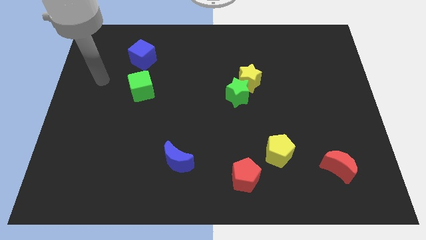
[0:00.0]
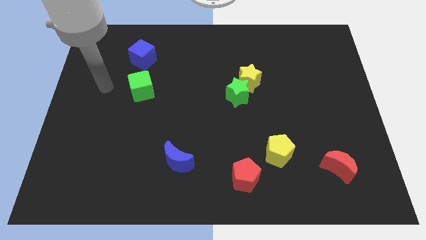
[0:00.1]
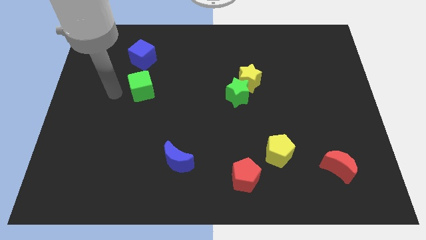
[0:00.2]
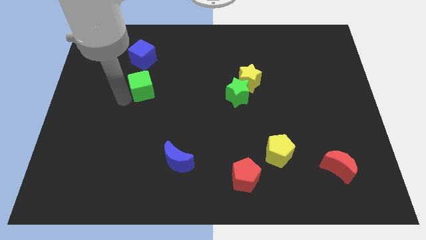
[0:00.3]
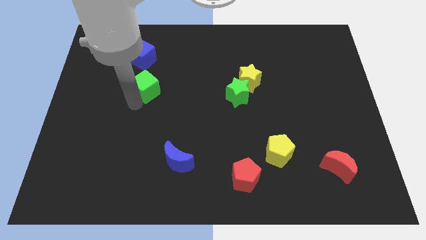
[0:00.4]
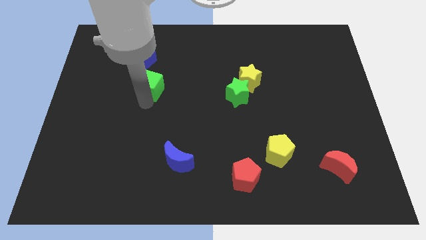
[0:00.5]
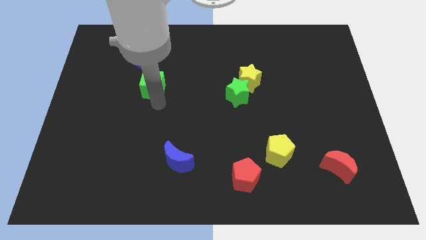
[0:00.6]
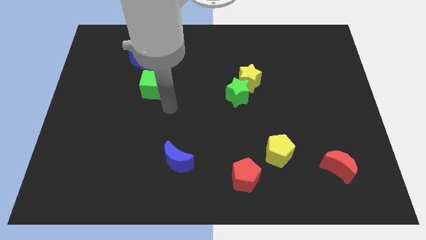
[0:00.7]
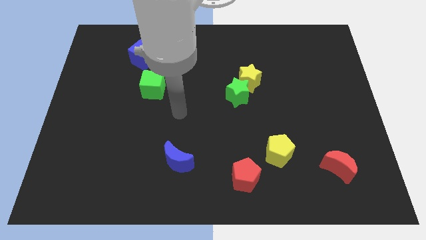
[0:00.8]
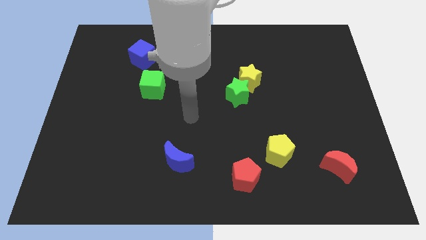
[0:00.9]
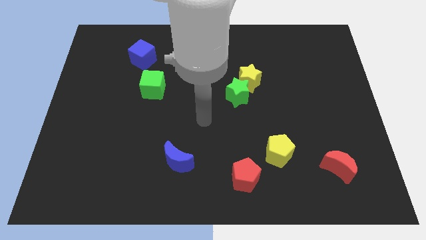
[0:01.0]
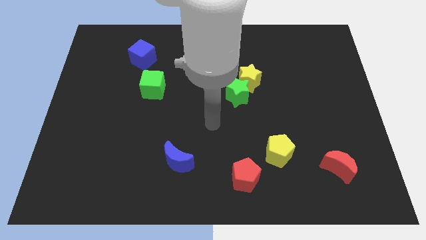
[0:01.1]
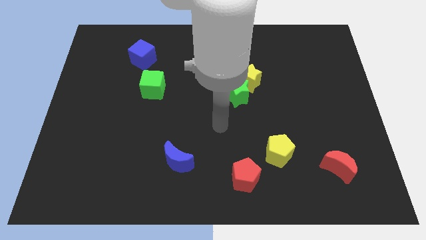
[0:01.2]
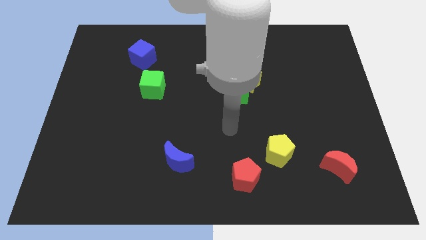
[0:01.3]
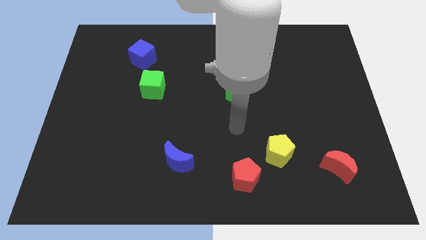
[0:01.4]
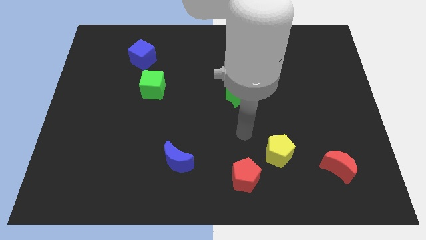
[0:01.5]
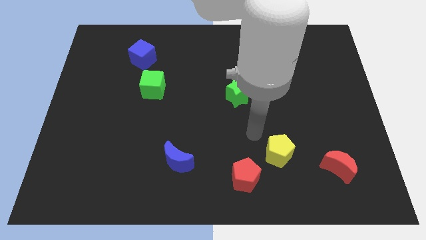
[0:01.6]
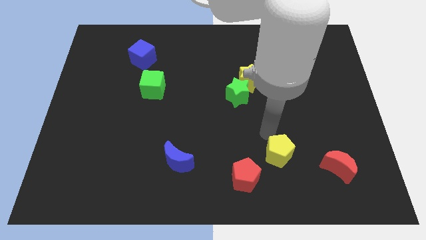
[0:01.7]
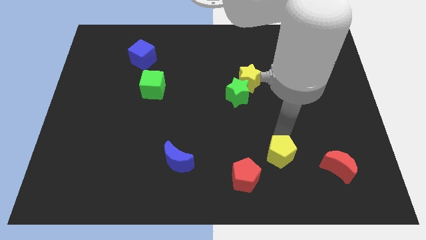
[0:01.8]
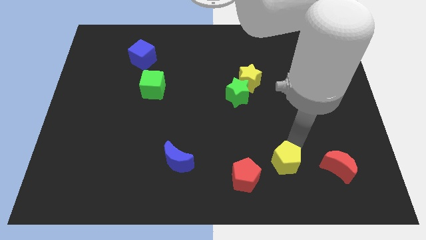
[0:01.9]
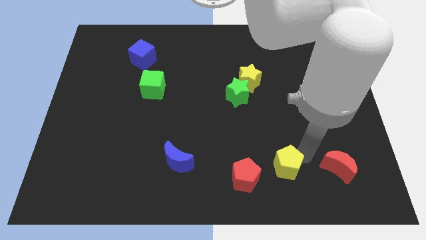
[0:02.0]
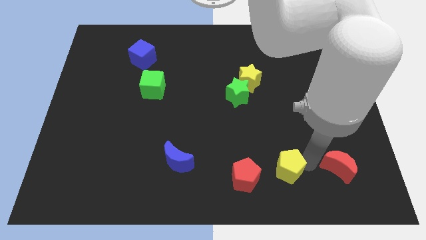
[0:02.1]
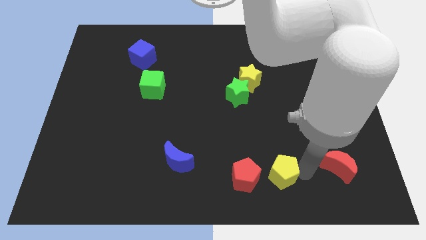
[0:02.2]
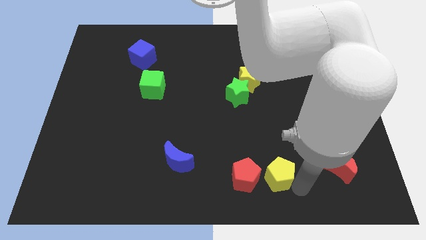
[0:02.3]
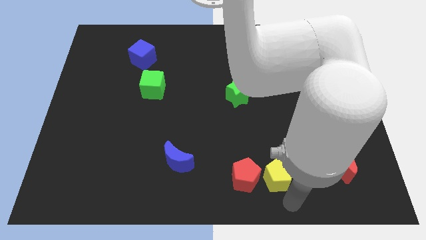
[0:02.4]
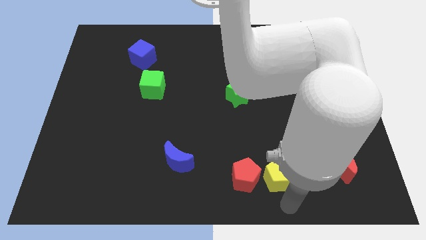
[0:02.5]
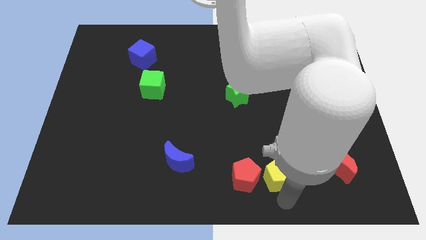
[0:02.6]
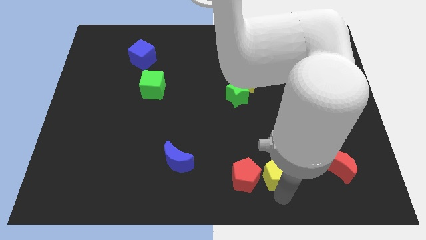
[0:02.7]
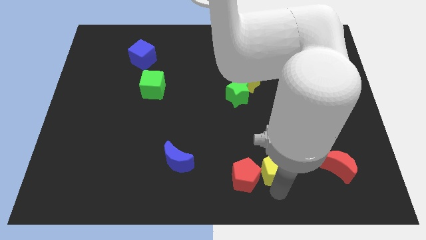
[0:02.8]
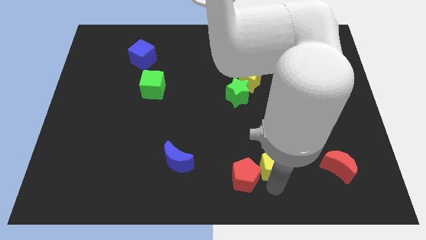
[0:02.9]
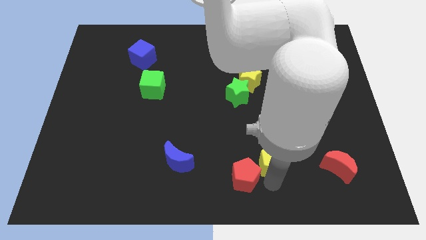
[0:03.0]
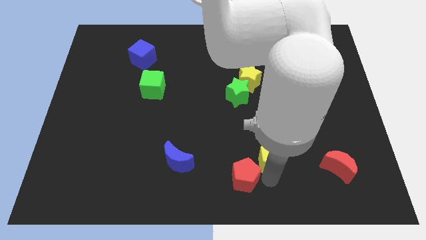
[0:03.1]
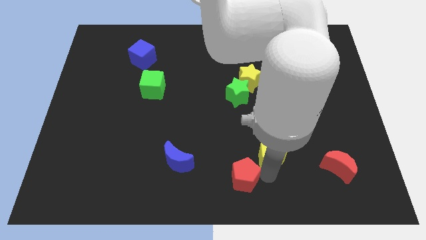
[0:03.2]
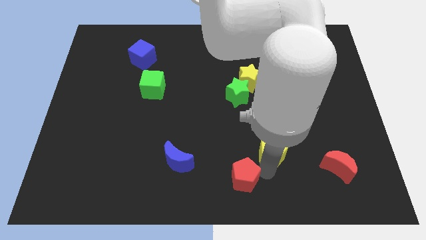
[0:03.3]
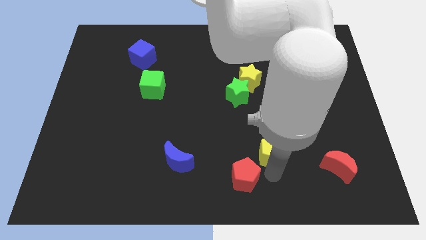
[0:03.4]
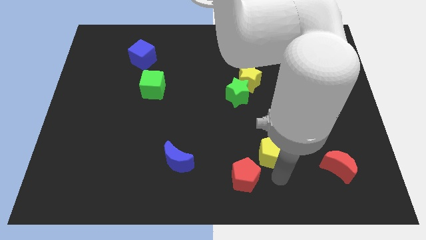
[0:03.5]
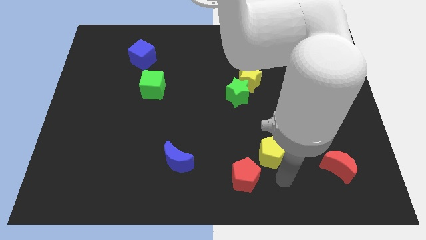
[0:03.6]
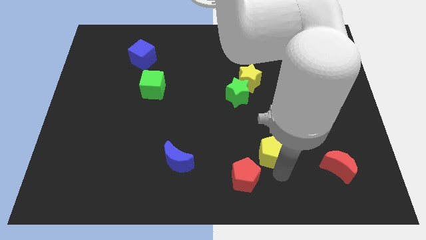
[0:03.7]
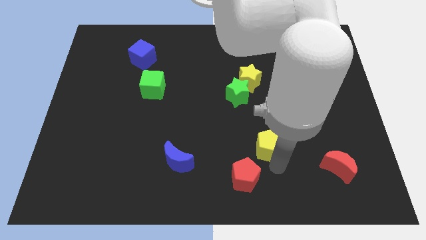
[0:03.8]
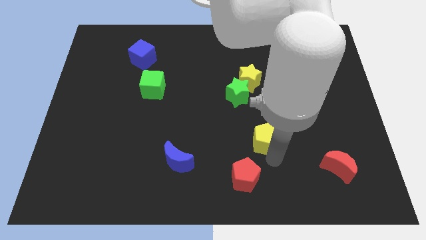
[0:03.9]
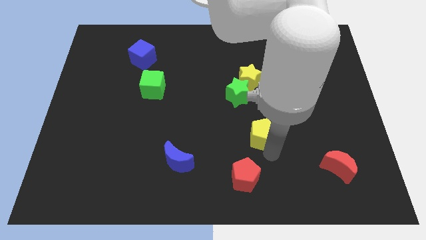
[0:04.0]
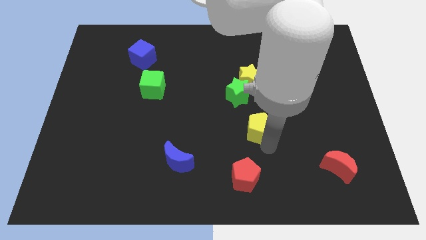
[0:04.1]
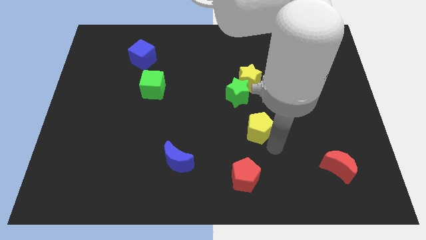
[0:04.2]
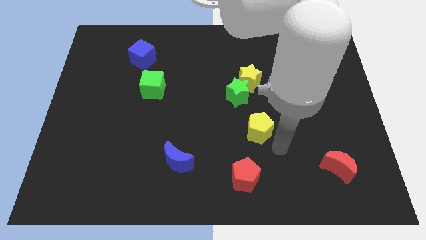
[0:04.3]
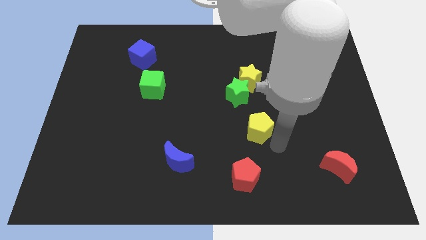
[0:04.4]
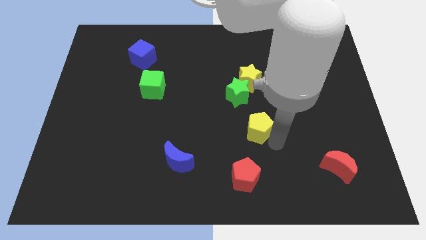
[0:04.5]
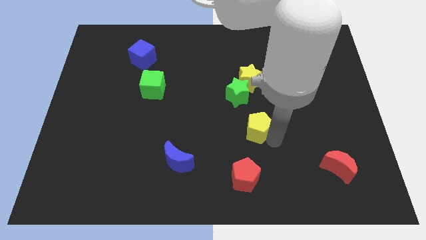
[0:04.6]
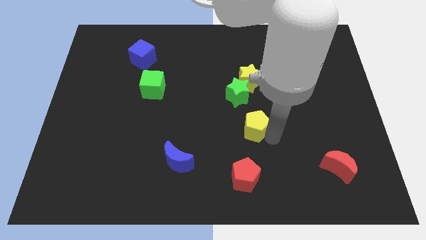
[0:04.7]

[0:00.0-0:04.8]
slide the yellow pentagon to the center of the board

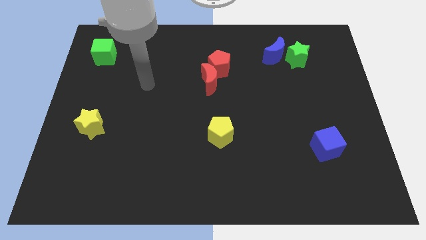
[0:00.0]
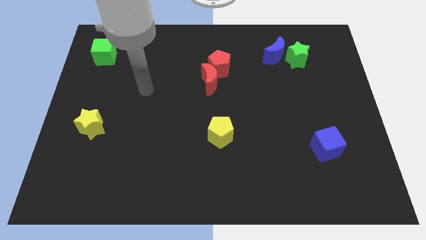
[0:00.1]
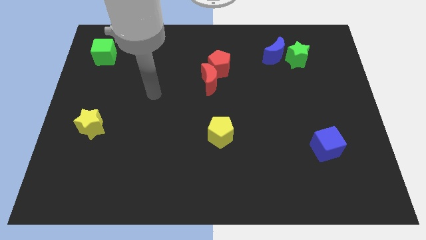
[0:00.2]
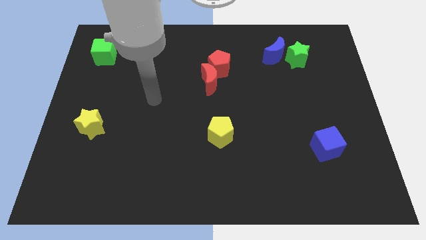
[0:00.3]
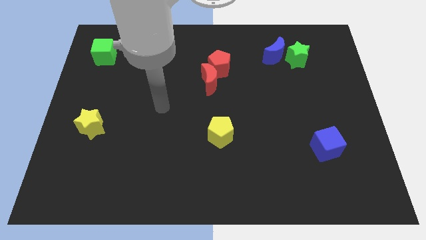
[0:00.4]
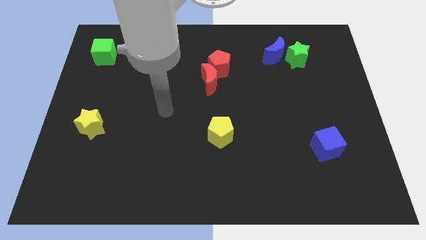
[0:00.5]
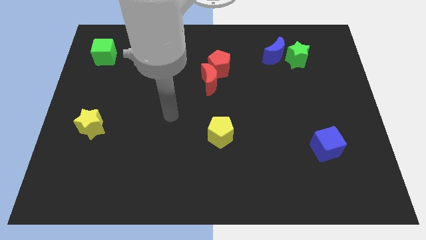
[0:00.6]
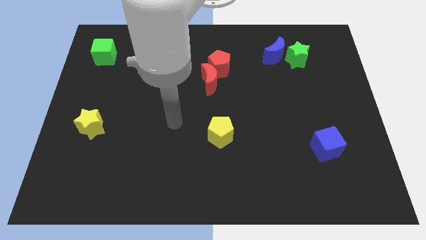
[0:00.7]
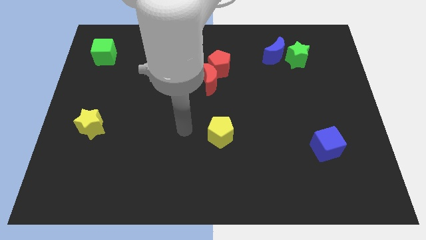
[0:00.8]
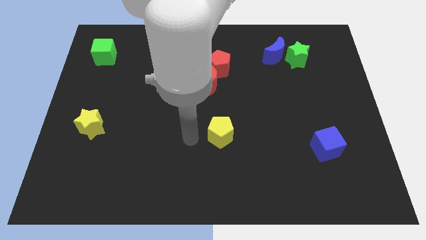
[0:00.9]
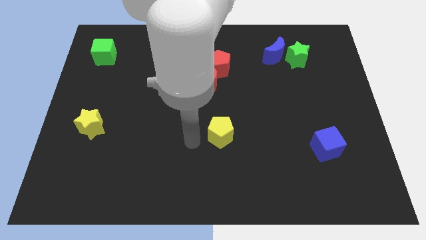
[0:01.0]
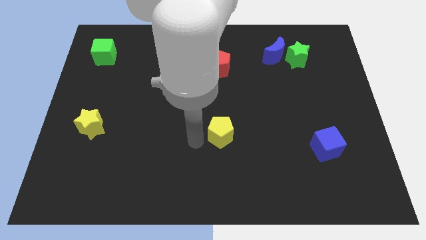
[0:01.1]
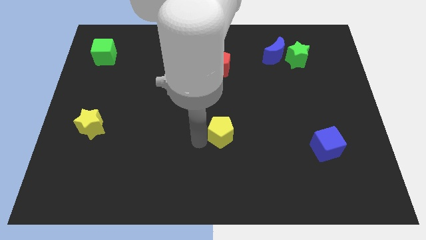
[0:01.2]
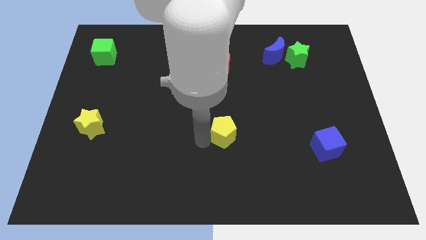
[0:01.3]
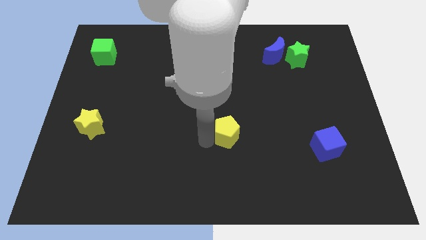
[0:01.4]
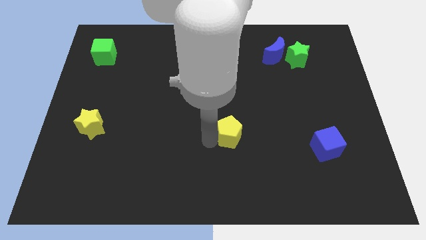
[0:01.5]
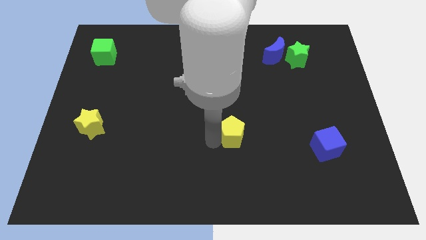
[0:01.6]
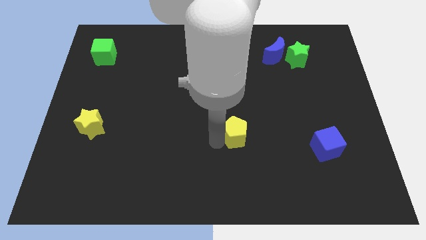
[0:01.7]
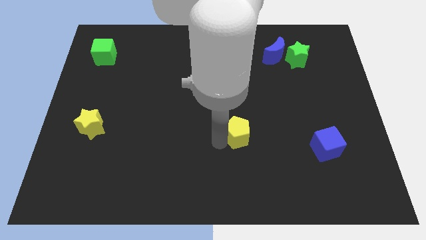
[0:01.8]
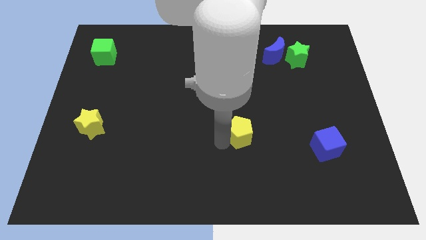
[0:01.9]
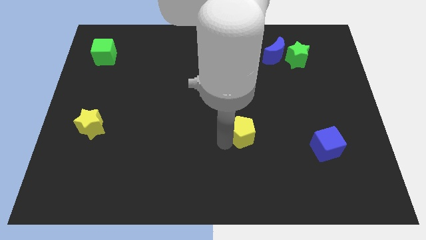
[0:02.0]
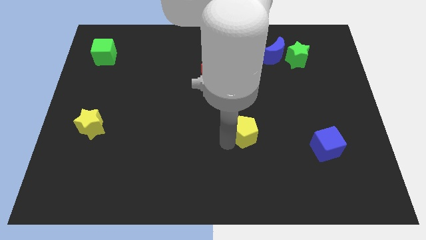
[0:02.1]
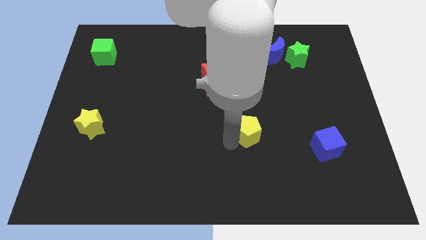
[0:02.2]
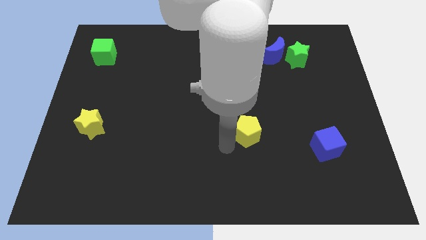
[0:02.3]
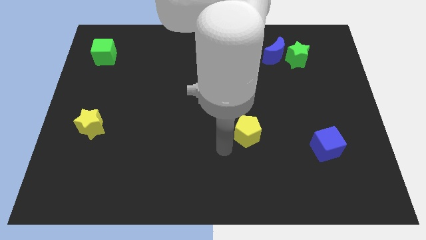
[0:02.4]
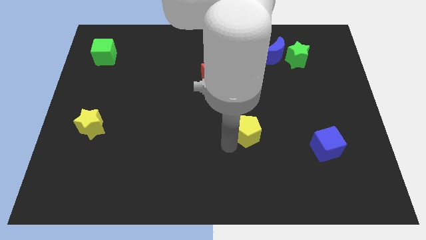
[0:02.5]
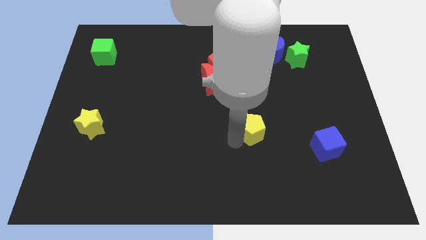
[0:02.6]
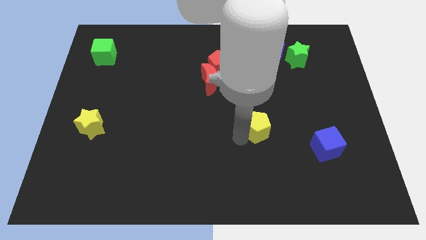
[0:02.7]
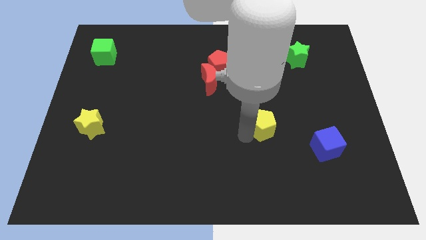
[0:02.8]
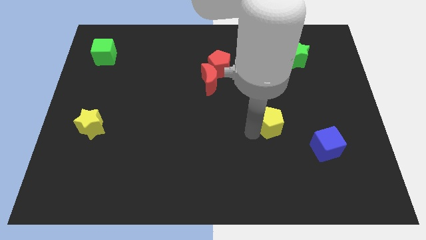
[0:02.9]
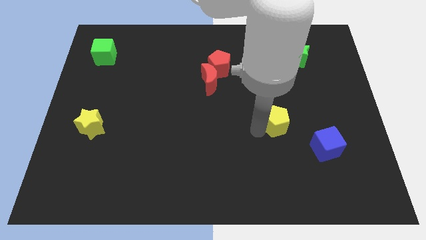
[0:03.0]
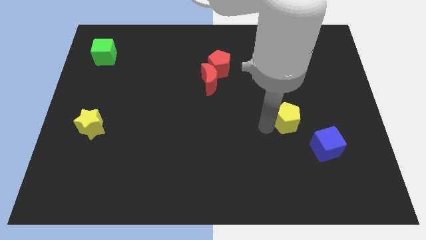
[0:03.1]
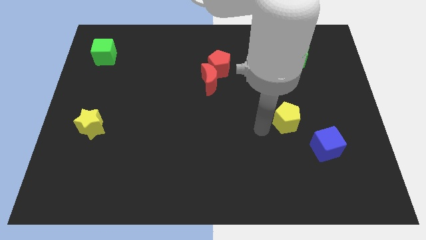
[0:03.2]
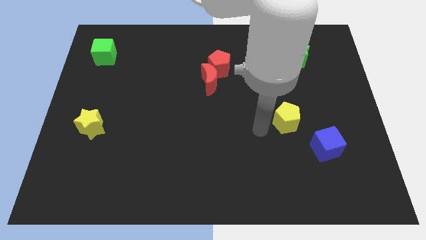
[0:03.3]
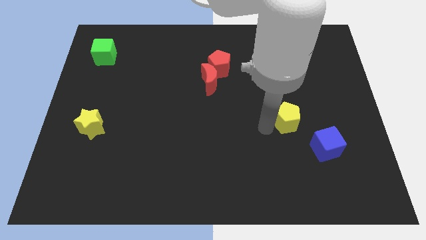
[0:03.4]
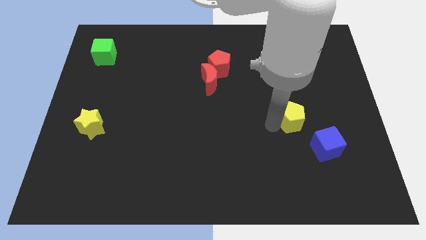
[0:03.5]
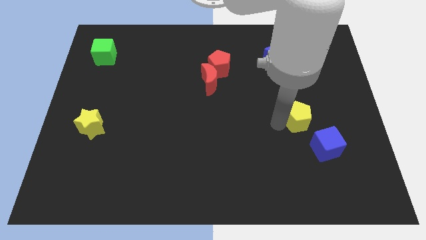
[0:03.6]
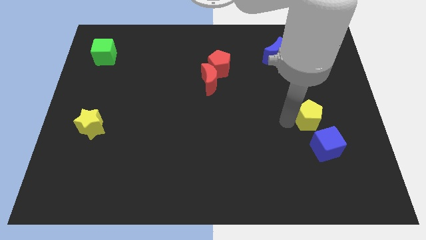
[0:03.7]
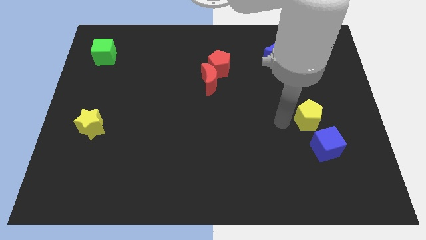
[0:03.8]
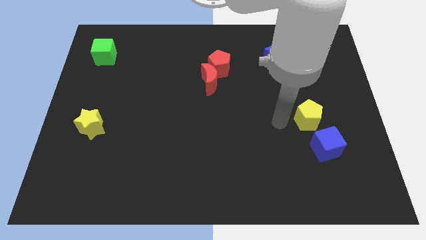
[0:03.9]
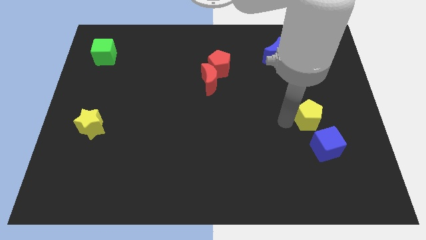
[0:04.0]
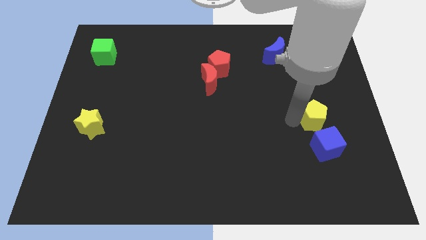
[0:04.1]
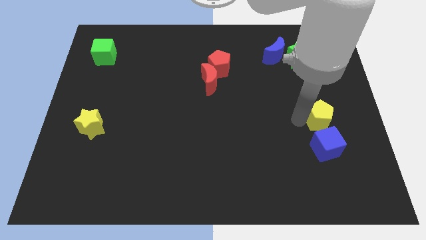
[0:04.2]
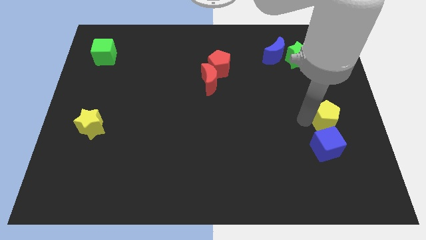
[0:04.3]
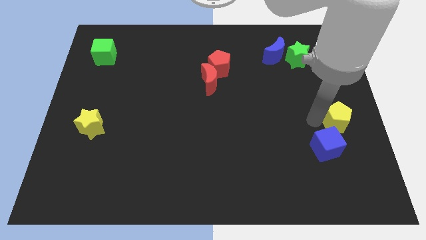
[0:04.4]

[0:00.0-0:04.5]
put the yellow pentagon to the center right
